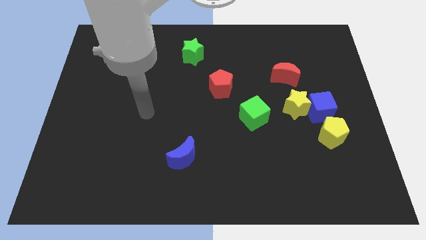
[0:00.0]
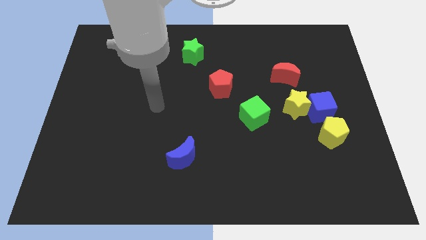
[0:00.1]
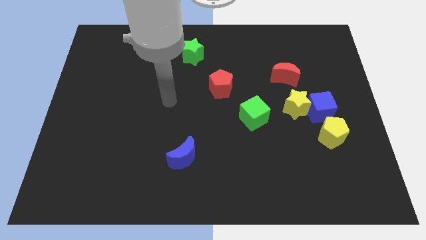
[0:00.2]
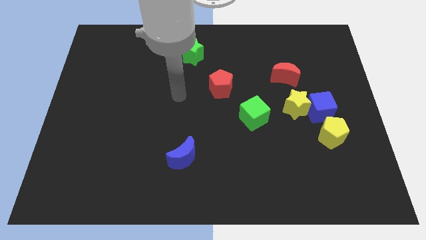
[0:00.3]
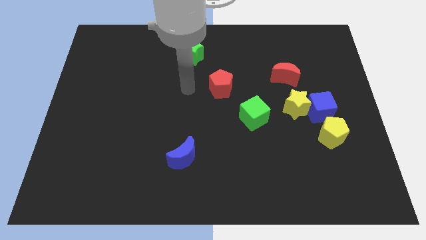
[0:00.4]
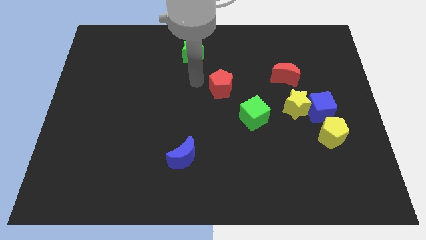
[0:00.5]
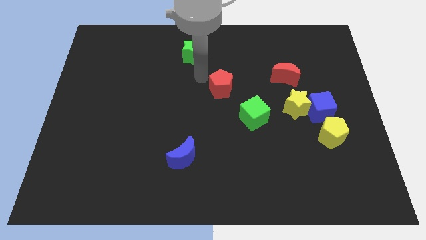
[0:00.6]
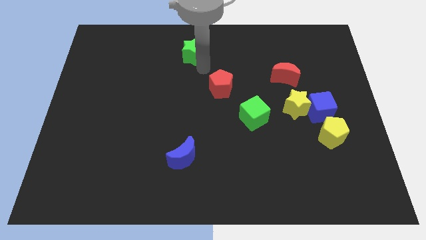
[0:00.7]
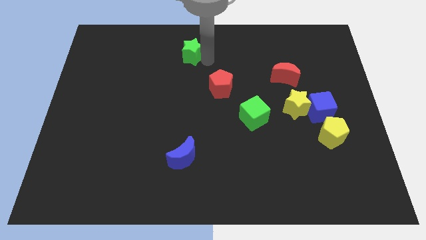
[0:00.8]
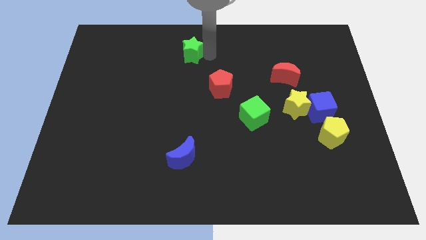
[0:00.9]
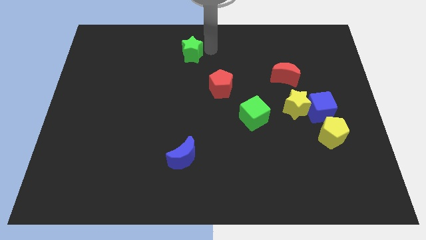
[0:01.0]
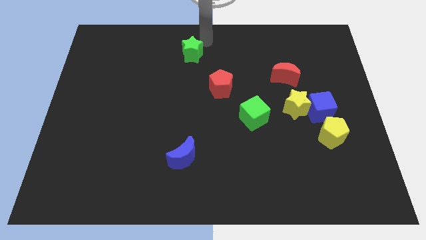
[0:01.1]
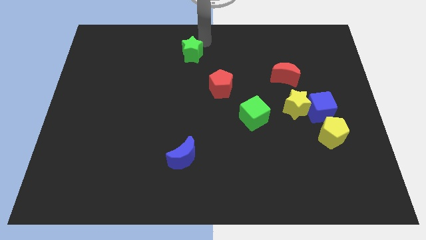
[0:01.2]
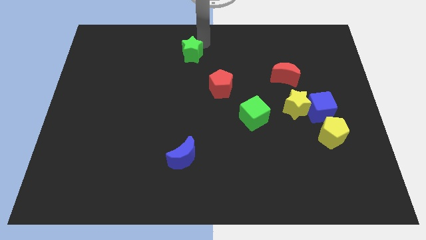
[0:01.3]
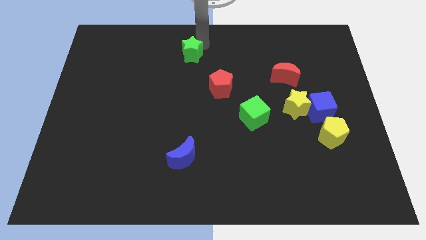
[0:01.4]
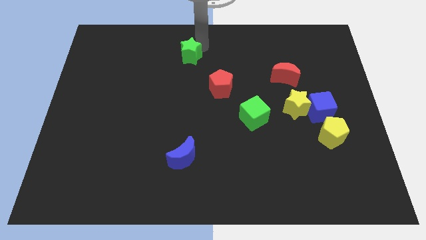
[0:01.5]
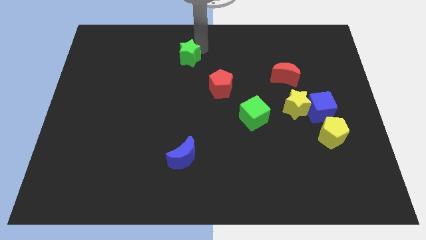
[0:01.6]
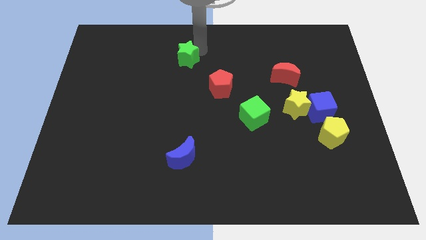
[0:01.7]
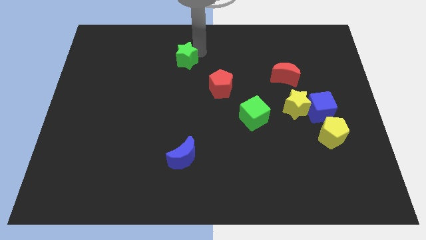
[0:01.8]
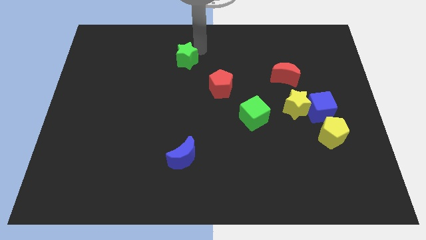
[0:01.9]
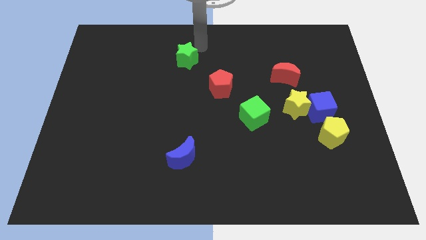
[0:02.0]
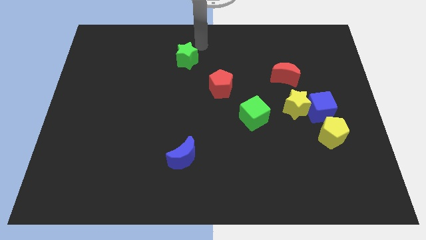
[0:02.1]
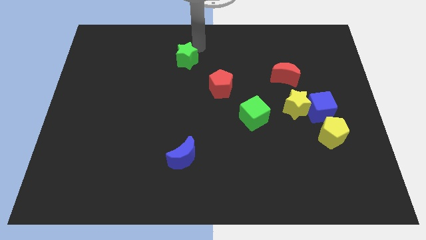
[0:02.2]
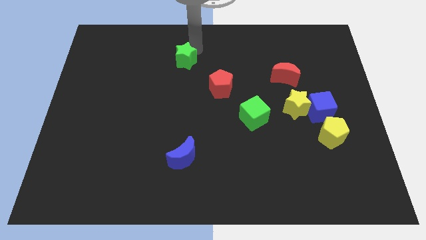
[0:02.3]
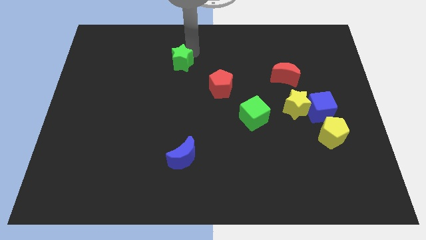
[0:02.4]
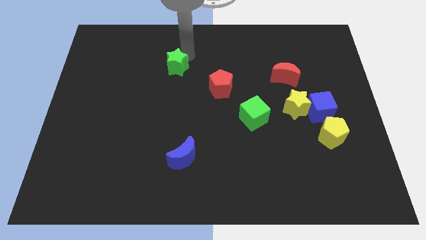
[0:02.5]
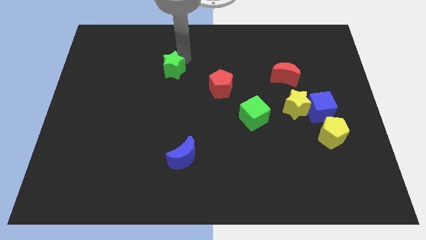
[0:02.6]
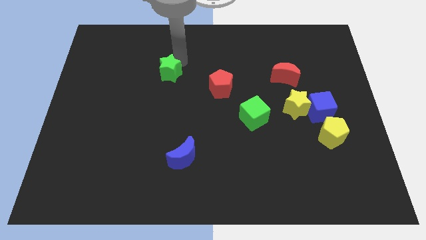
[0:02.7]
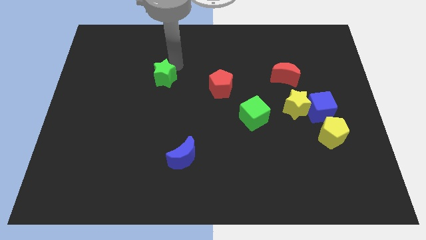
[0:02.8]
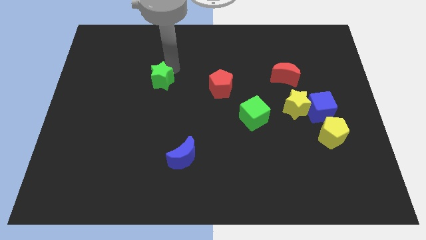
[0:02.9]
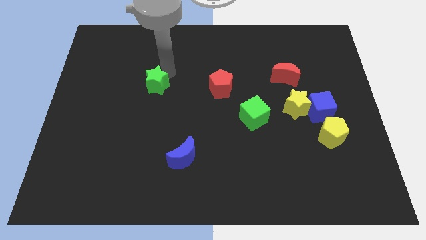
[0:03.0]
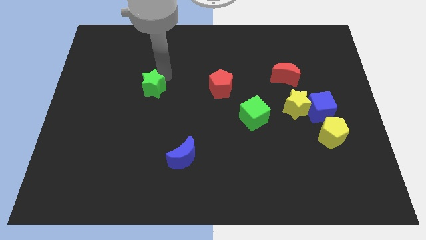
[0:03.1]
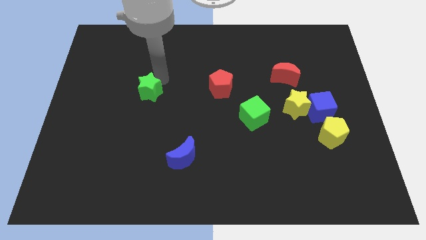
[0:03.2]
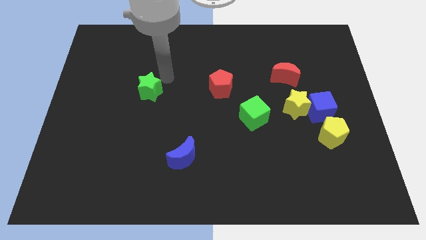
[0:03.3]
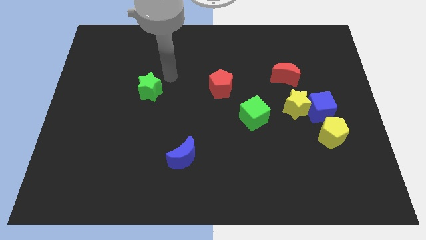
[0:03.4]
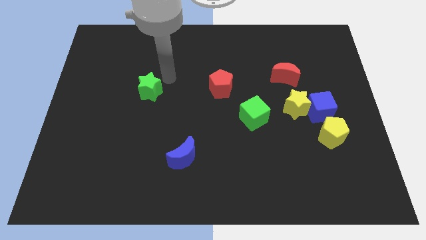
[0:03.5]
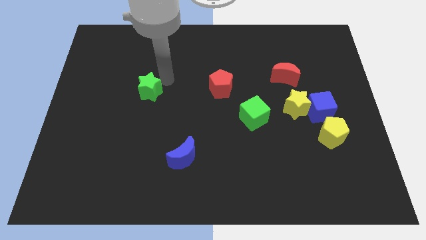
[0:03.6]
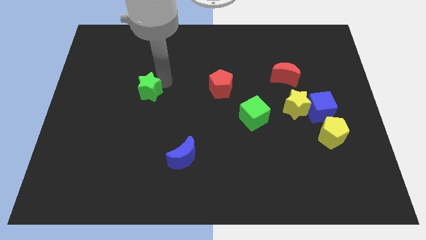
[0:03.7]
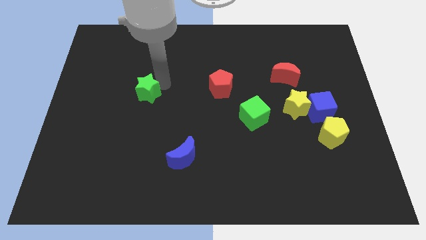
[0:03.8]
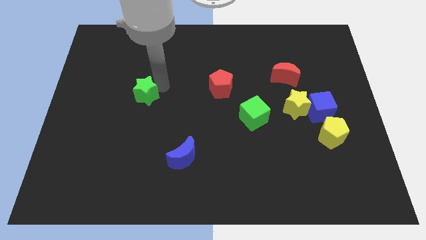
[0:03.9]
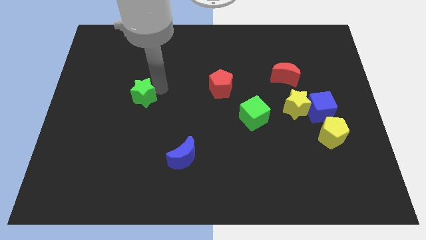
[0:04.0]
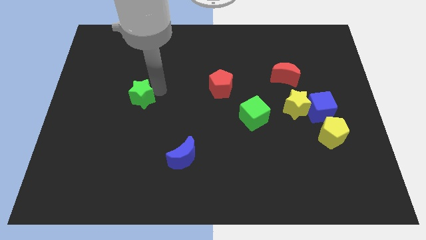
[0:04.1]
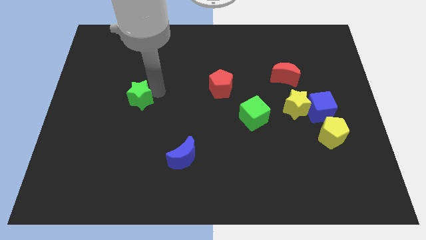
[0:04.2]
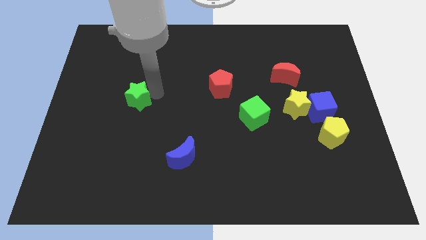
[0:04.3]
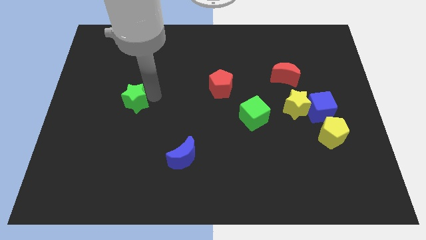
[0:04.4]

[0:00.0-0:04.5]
push the green star diagonally down and left

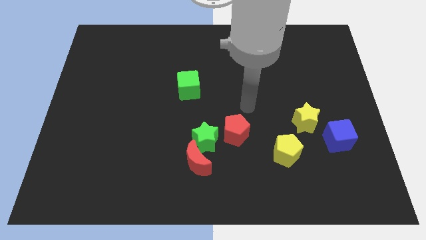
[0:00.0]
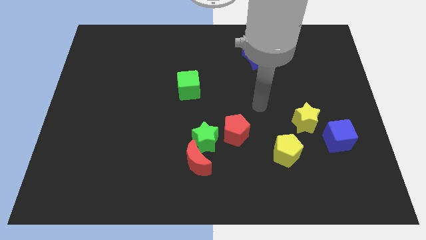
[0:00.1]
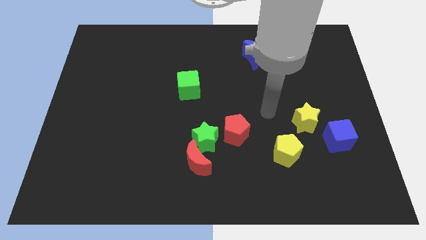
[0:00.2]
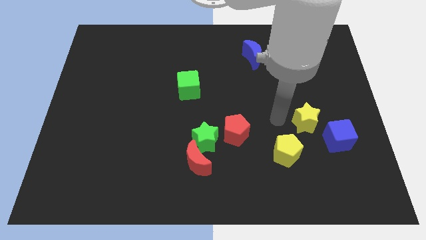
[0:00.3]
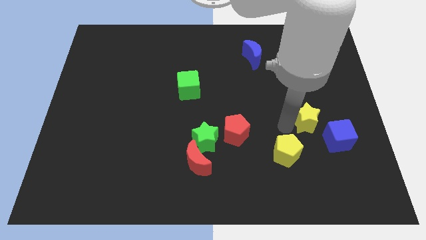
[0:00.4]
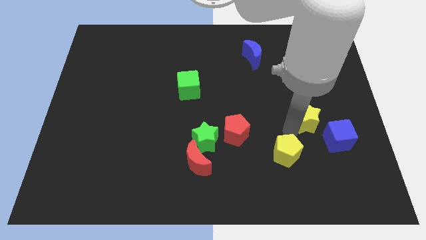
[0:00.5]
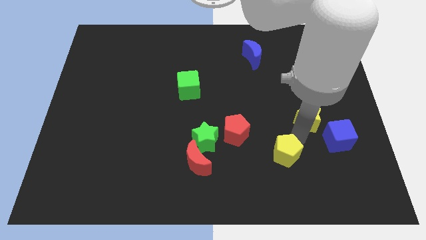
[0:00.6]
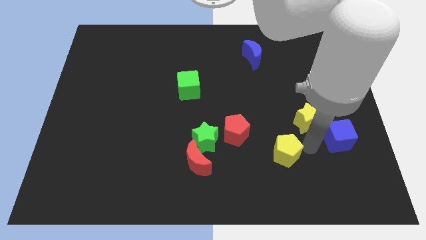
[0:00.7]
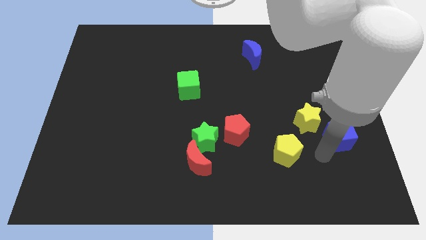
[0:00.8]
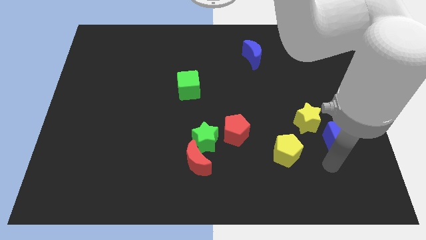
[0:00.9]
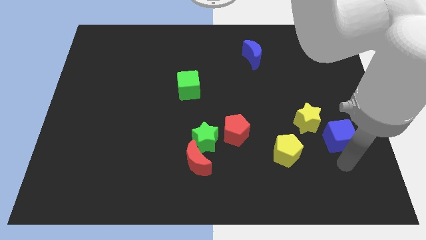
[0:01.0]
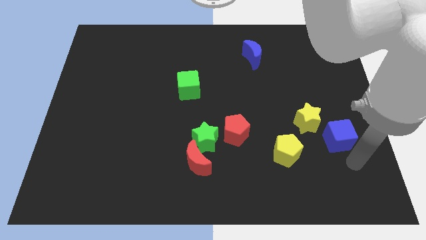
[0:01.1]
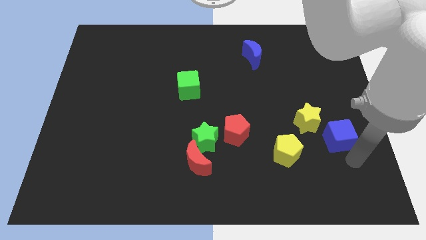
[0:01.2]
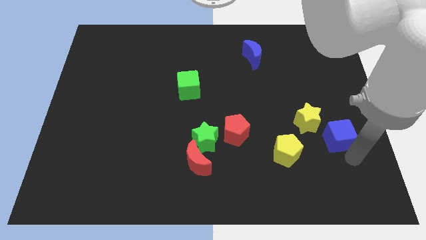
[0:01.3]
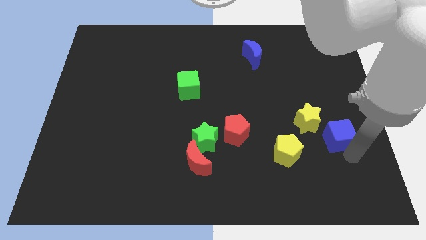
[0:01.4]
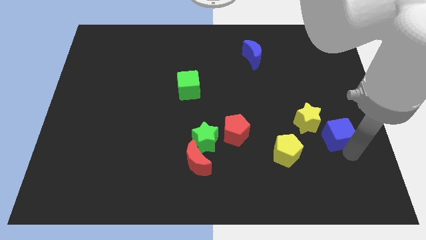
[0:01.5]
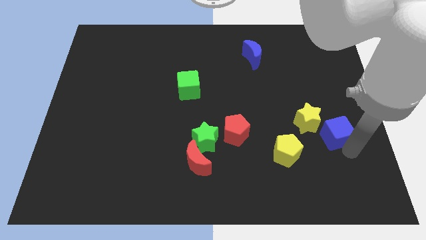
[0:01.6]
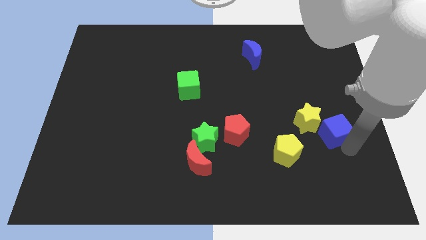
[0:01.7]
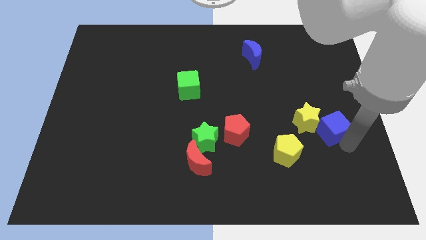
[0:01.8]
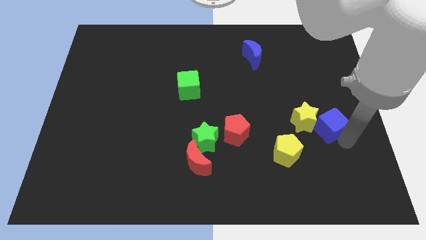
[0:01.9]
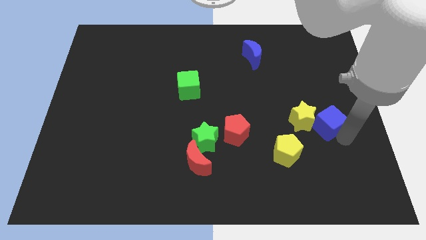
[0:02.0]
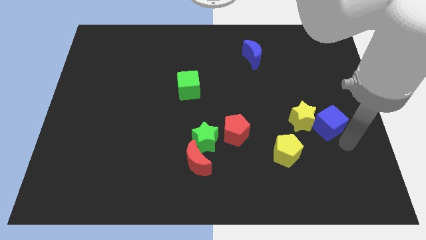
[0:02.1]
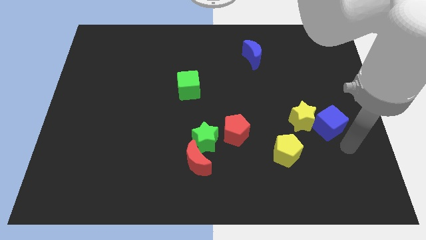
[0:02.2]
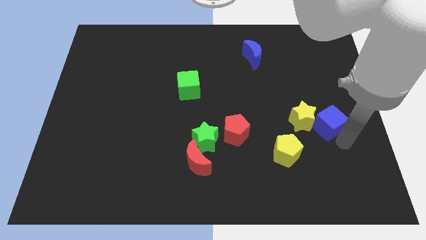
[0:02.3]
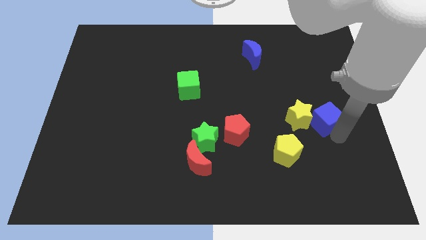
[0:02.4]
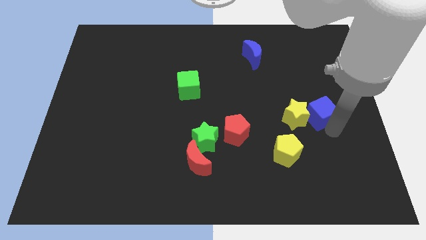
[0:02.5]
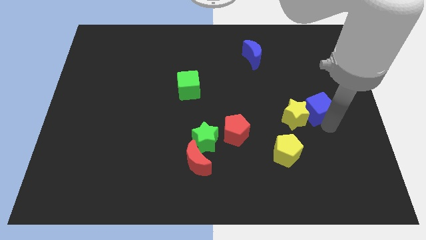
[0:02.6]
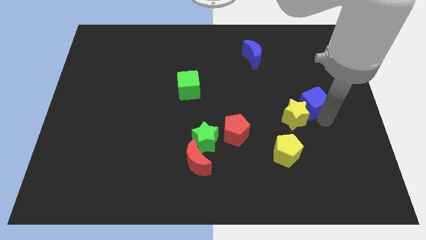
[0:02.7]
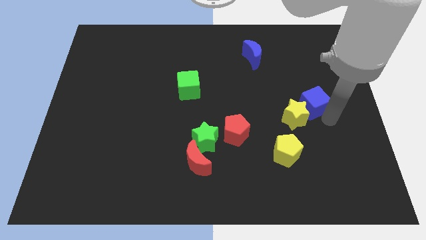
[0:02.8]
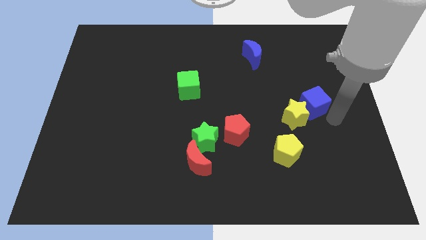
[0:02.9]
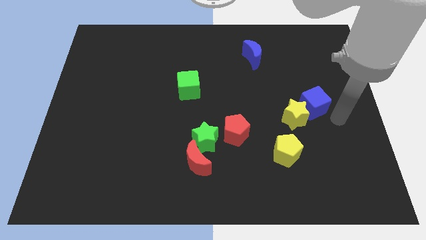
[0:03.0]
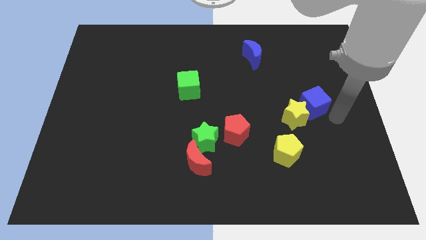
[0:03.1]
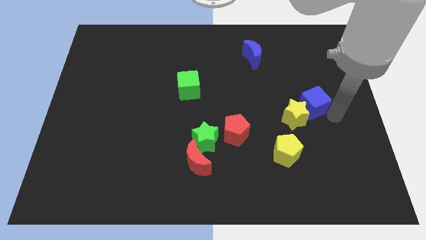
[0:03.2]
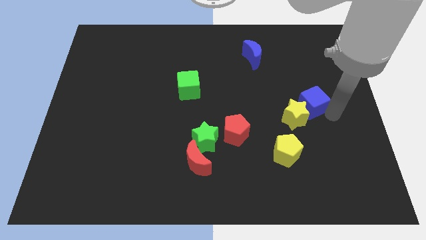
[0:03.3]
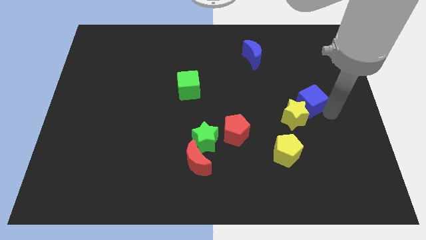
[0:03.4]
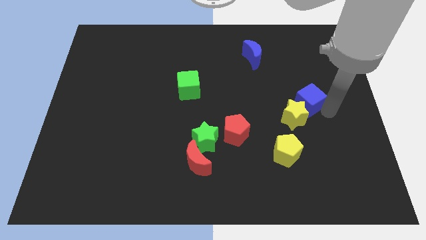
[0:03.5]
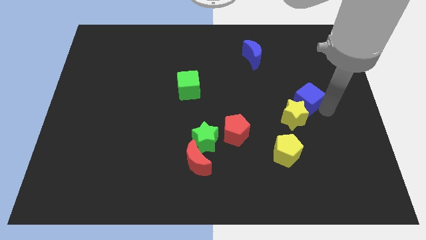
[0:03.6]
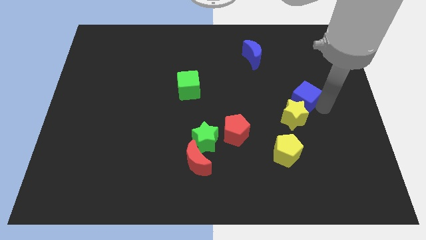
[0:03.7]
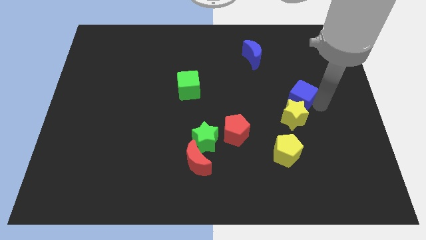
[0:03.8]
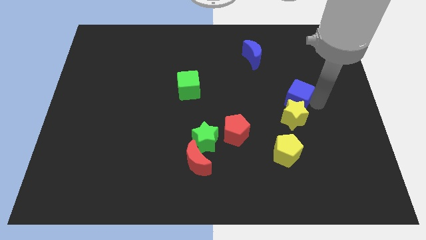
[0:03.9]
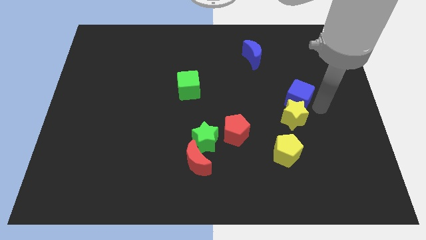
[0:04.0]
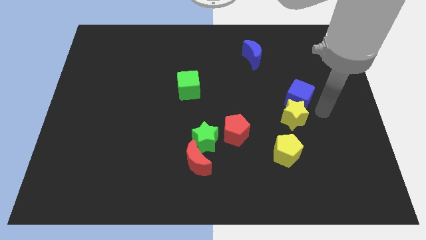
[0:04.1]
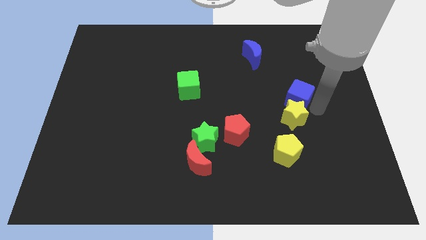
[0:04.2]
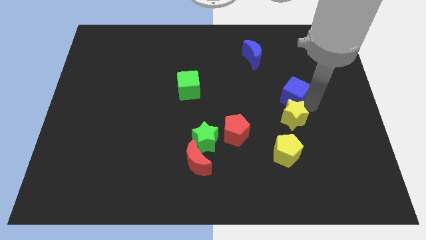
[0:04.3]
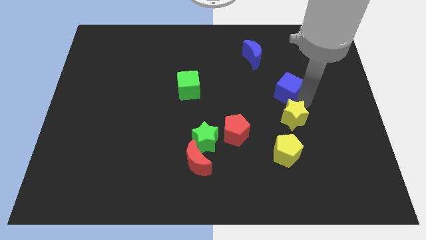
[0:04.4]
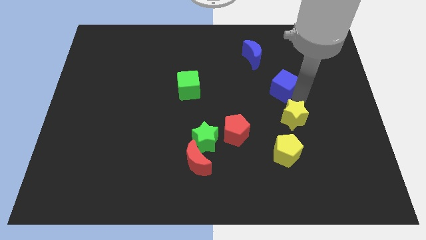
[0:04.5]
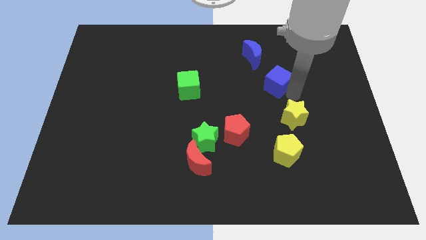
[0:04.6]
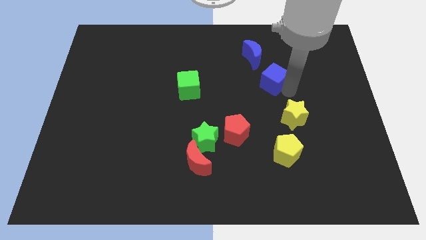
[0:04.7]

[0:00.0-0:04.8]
slide the blue cube upwards and left
